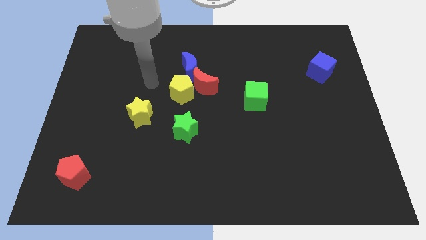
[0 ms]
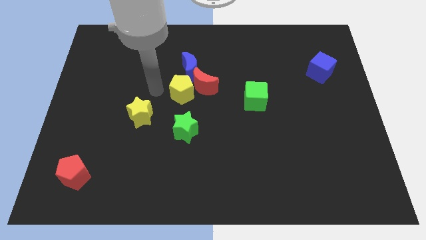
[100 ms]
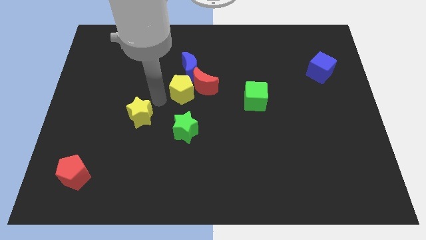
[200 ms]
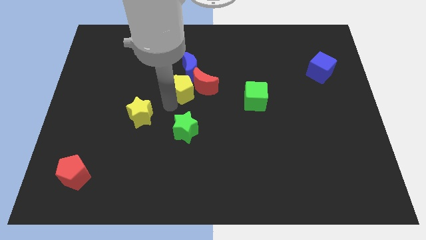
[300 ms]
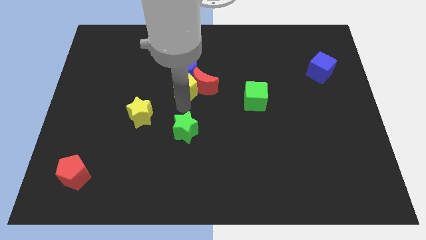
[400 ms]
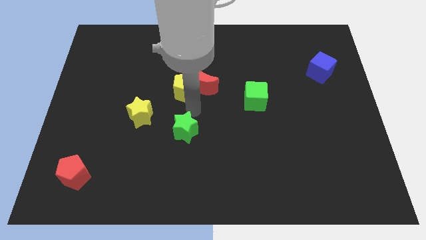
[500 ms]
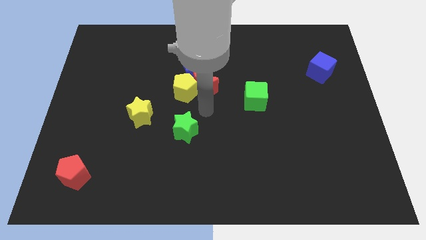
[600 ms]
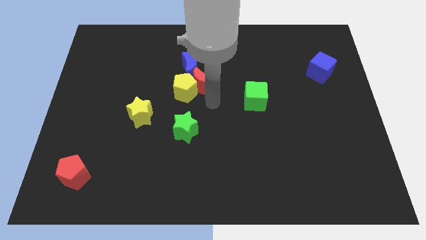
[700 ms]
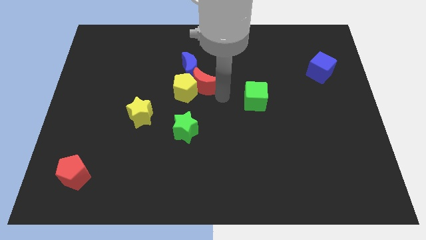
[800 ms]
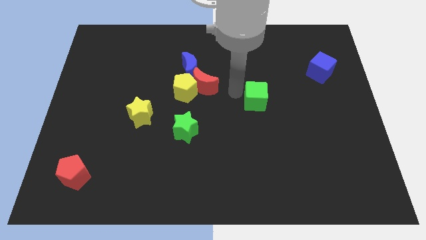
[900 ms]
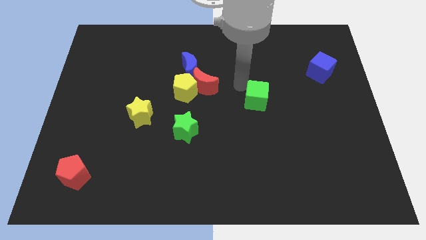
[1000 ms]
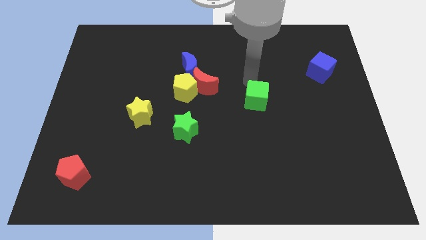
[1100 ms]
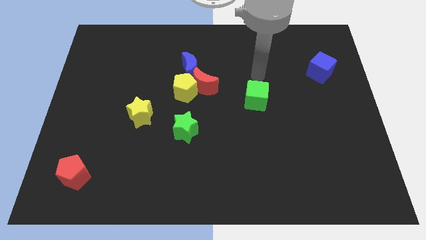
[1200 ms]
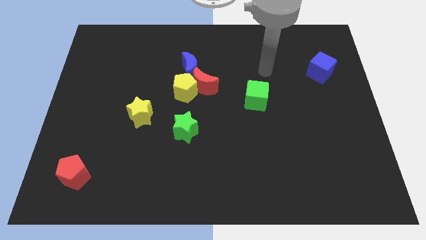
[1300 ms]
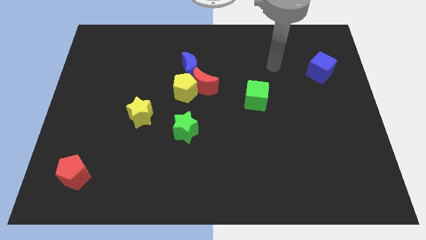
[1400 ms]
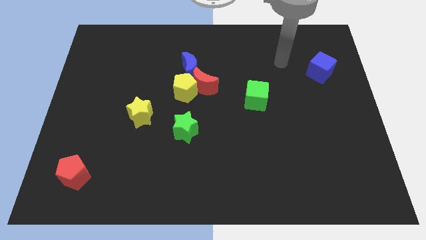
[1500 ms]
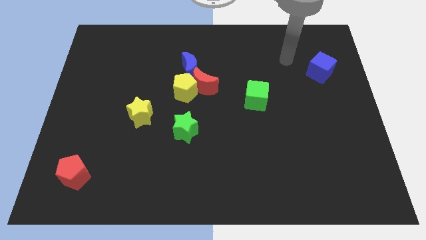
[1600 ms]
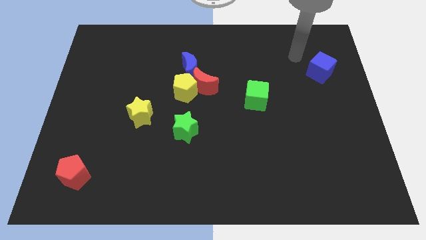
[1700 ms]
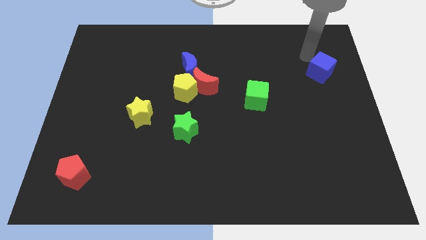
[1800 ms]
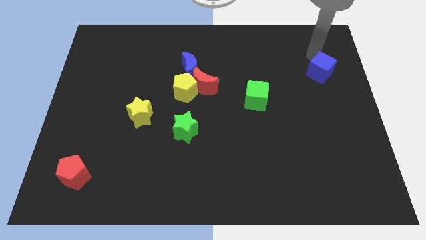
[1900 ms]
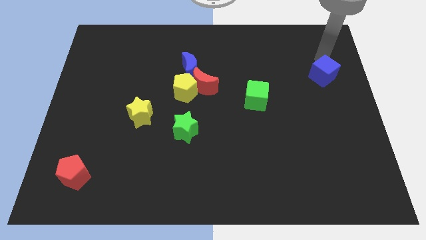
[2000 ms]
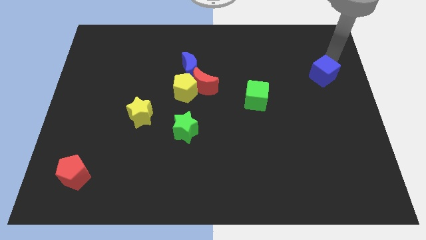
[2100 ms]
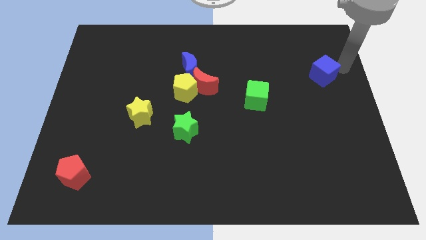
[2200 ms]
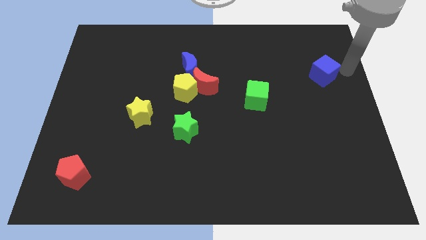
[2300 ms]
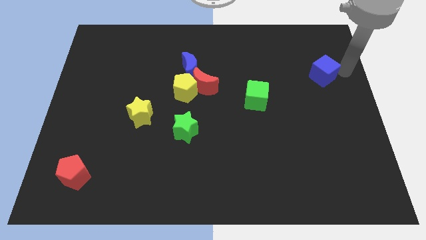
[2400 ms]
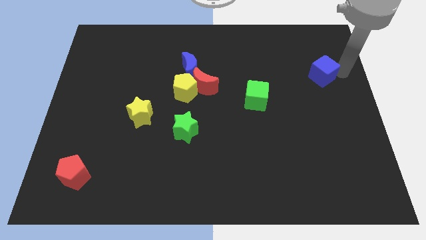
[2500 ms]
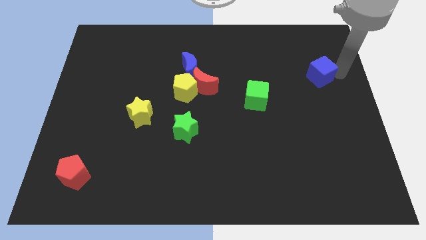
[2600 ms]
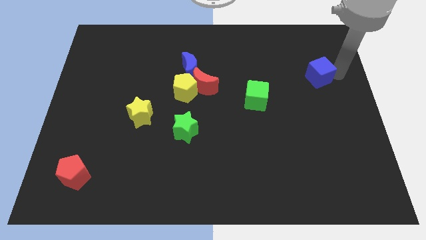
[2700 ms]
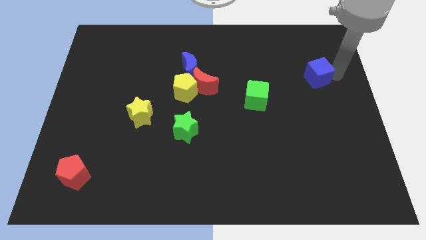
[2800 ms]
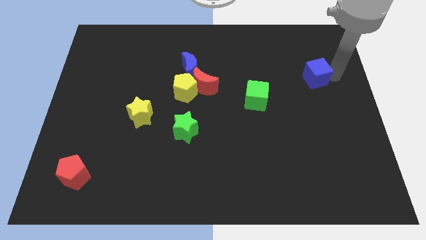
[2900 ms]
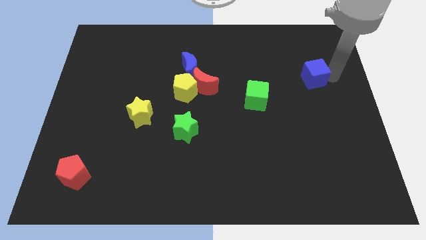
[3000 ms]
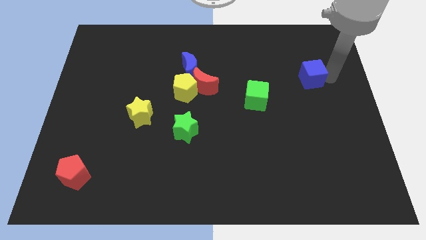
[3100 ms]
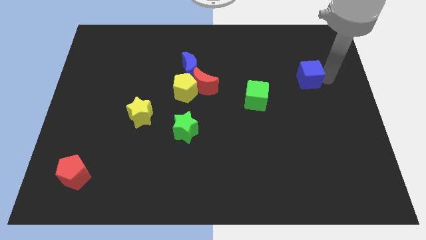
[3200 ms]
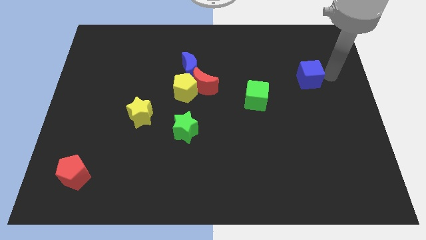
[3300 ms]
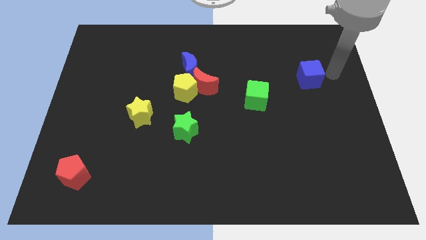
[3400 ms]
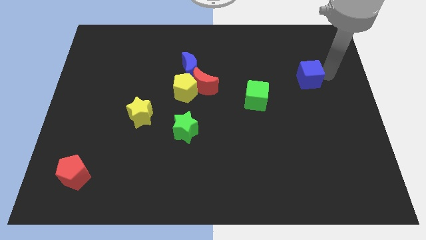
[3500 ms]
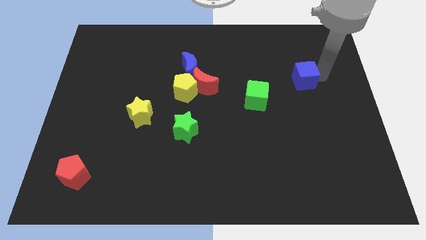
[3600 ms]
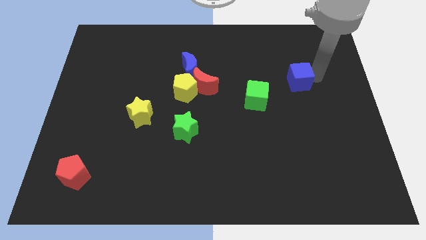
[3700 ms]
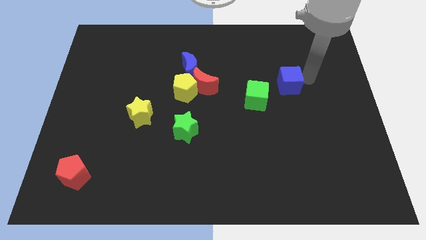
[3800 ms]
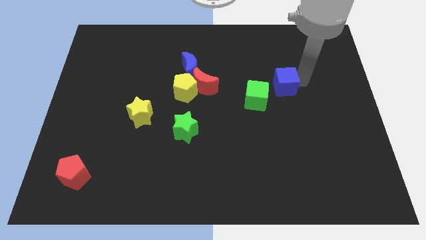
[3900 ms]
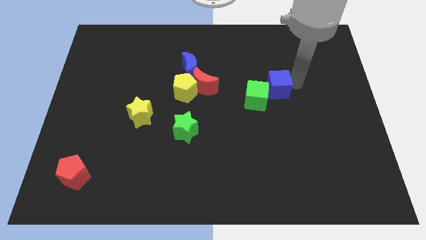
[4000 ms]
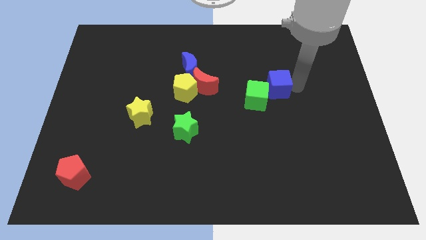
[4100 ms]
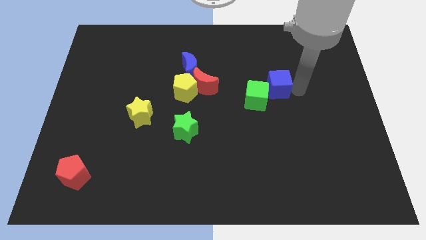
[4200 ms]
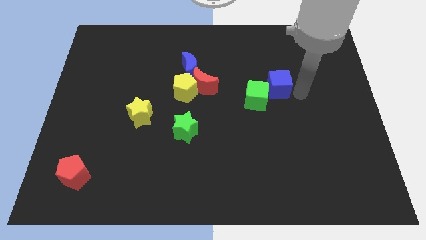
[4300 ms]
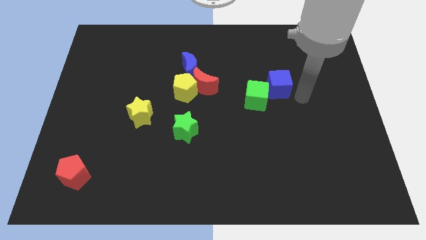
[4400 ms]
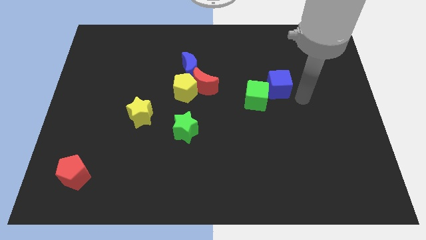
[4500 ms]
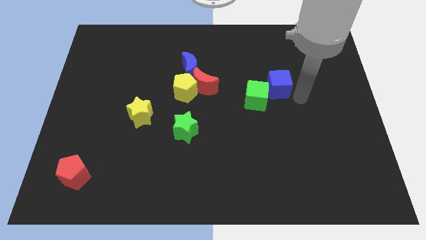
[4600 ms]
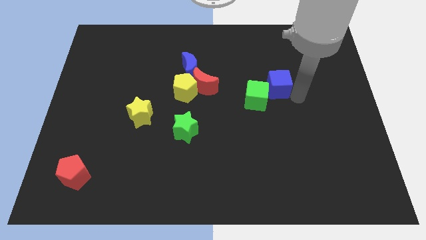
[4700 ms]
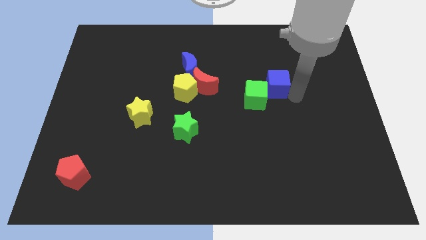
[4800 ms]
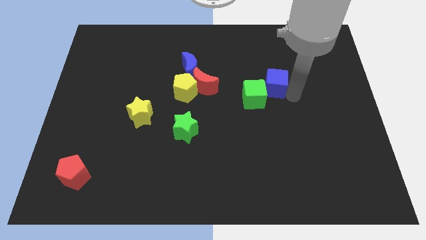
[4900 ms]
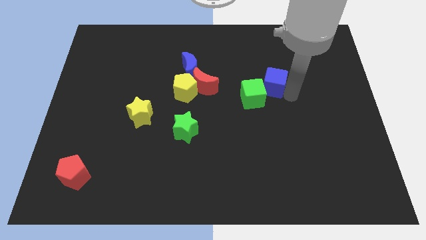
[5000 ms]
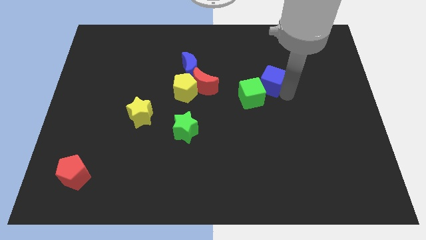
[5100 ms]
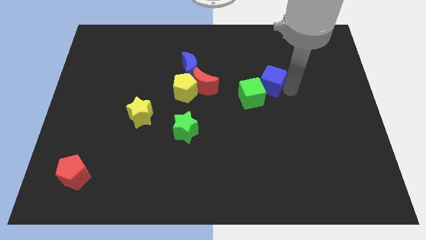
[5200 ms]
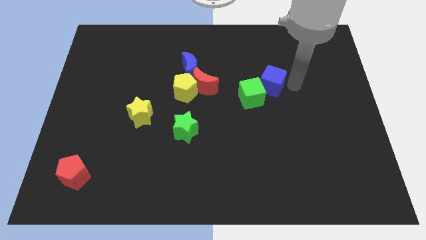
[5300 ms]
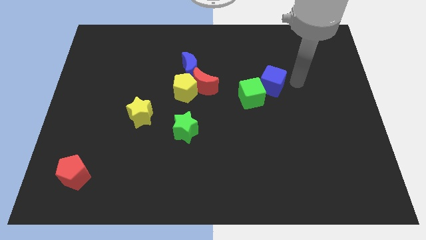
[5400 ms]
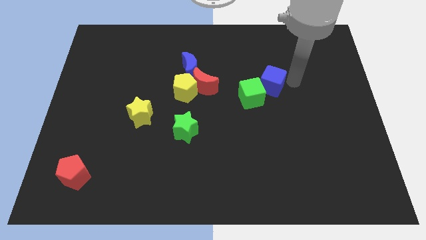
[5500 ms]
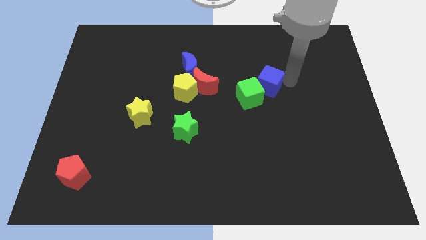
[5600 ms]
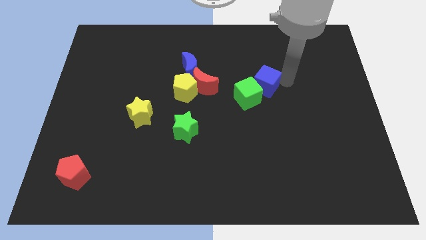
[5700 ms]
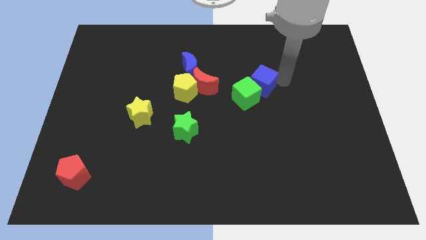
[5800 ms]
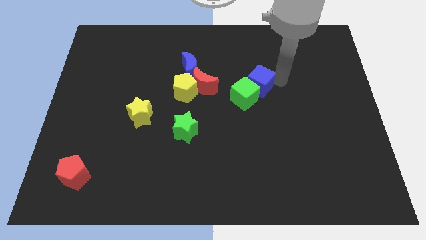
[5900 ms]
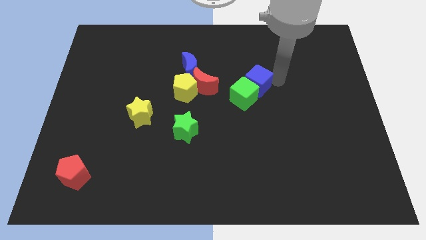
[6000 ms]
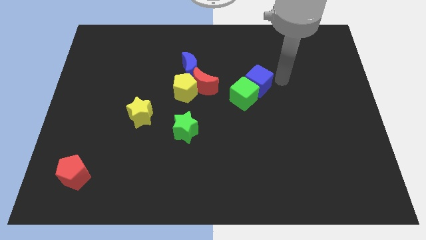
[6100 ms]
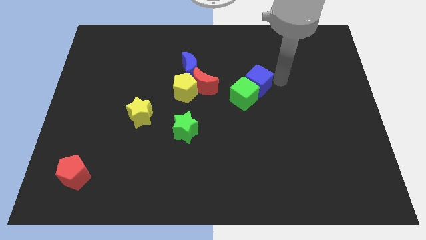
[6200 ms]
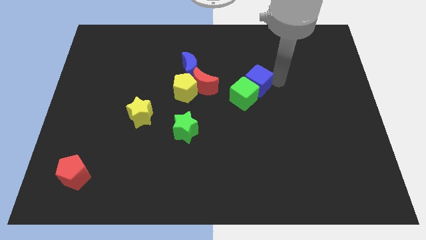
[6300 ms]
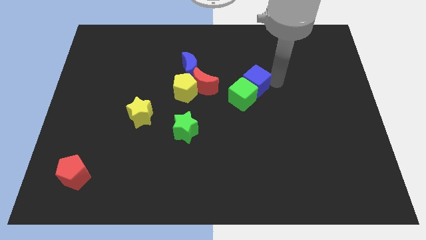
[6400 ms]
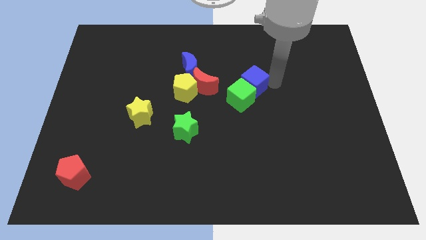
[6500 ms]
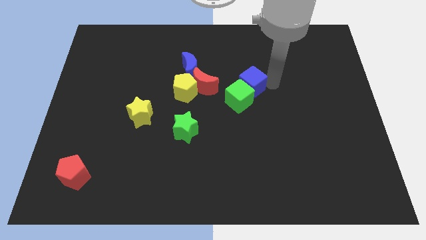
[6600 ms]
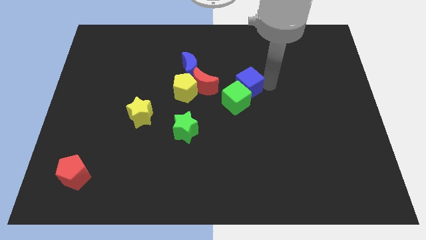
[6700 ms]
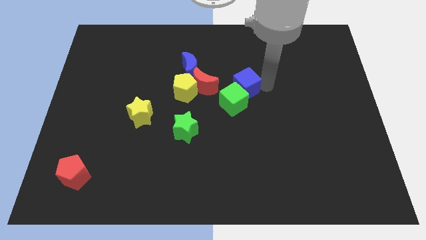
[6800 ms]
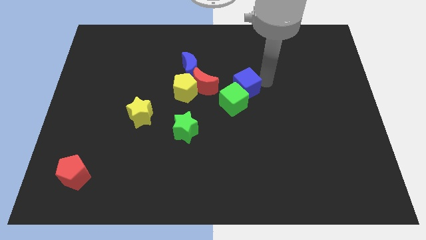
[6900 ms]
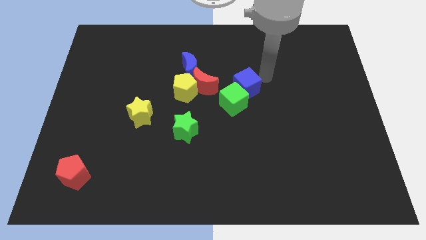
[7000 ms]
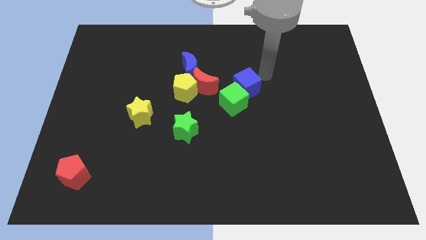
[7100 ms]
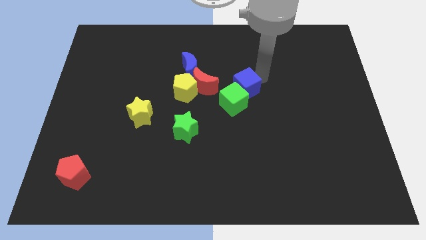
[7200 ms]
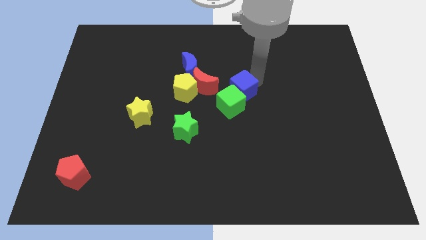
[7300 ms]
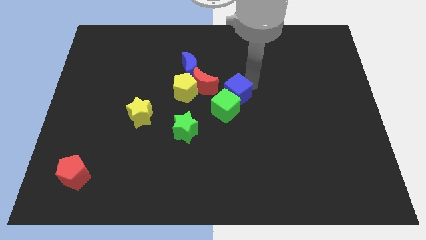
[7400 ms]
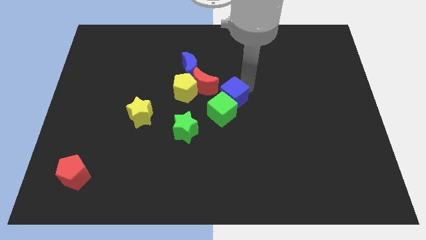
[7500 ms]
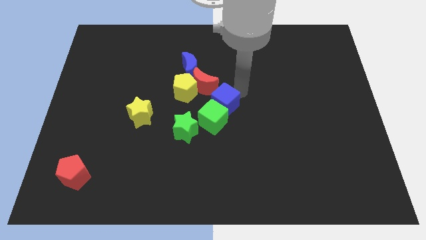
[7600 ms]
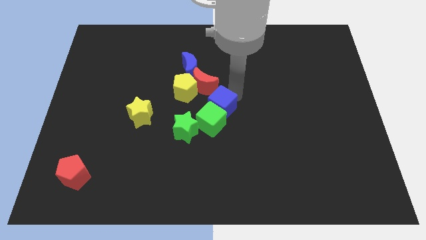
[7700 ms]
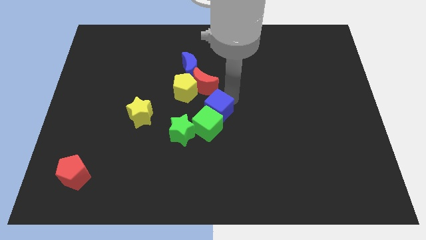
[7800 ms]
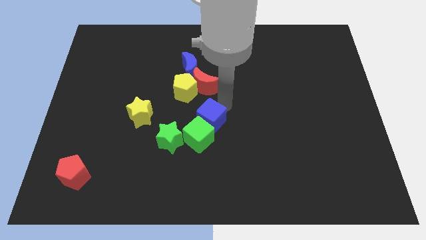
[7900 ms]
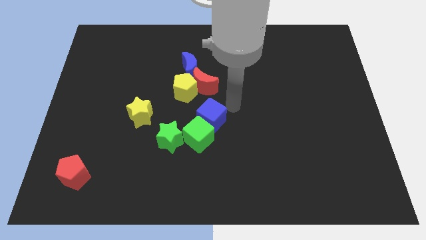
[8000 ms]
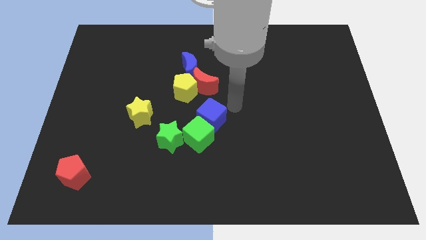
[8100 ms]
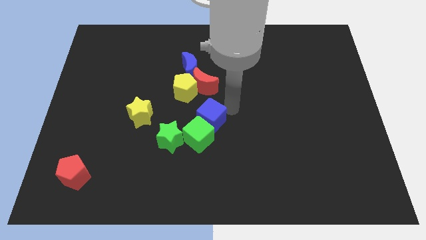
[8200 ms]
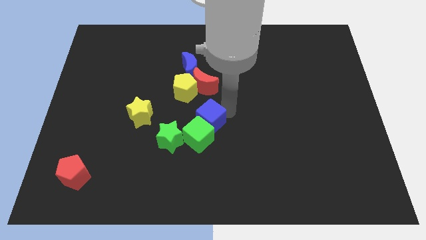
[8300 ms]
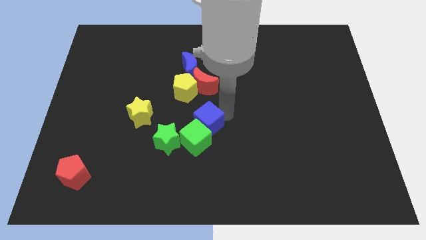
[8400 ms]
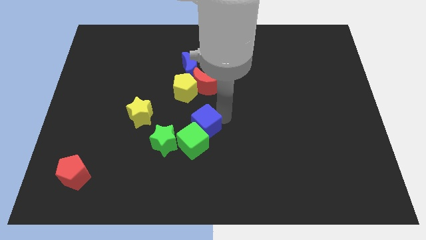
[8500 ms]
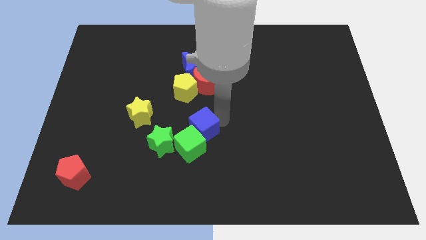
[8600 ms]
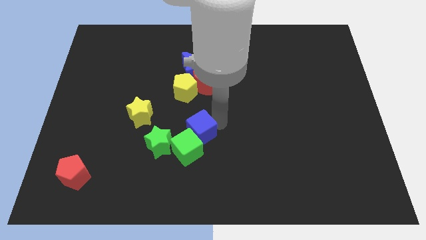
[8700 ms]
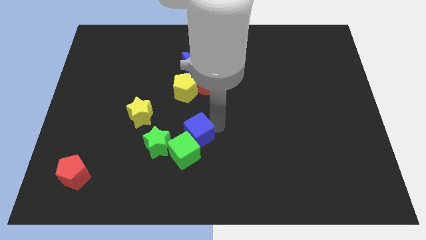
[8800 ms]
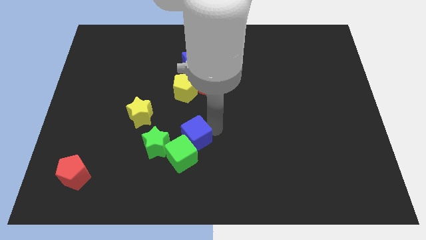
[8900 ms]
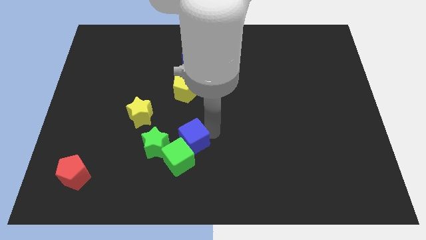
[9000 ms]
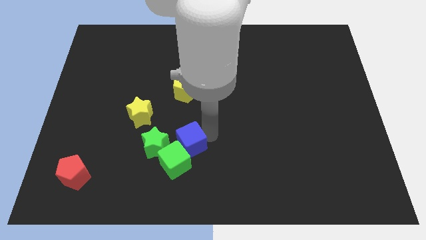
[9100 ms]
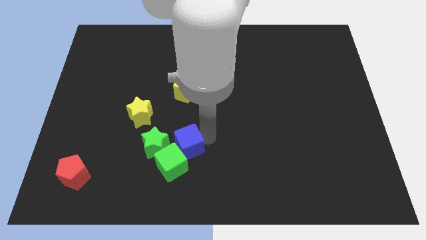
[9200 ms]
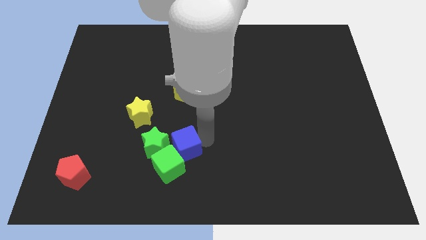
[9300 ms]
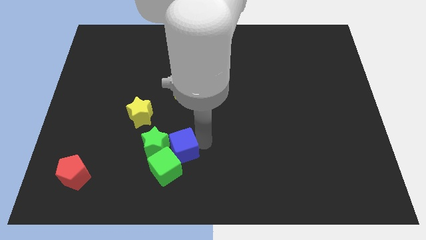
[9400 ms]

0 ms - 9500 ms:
move the blue cube to the green star
